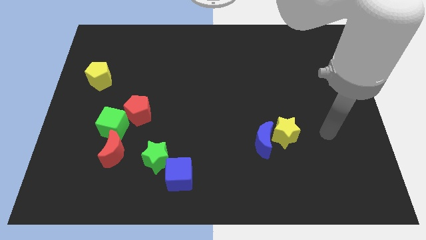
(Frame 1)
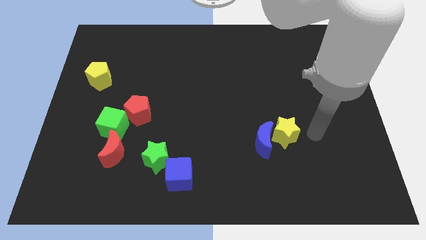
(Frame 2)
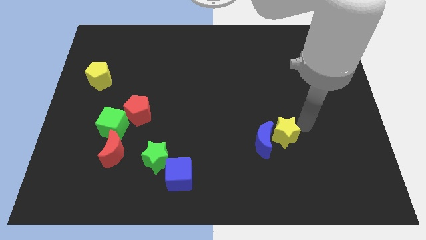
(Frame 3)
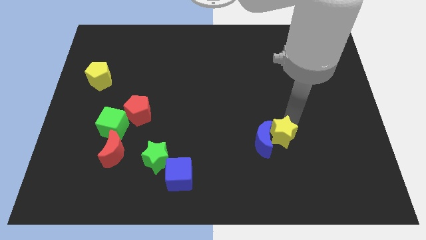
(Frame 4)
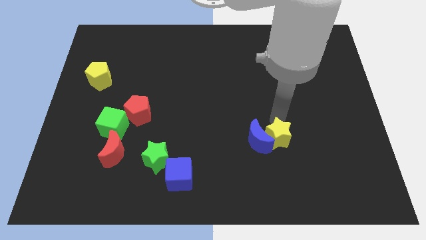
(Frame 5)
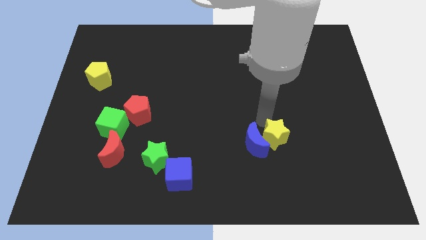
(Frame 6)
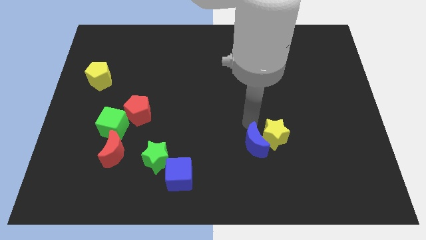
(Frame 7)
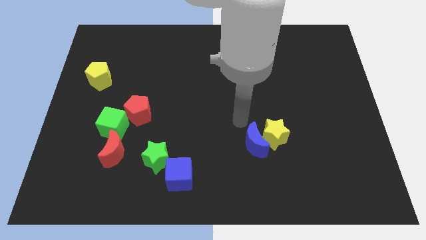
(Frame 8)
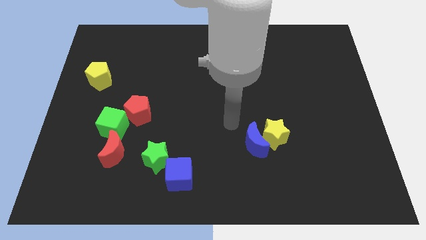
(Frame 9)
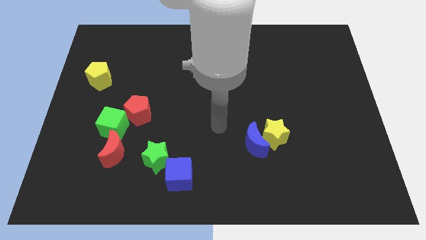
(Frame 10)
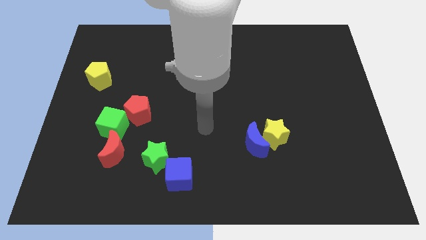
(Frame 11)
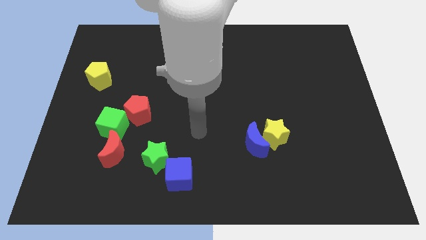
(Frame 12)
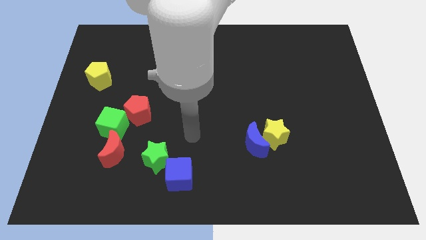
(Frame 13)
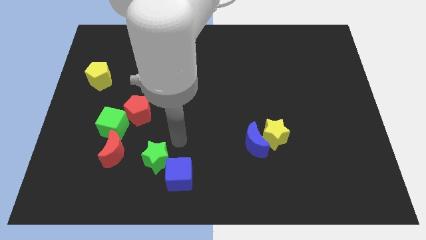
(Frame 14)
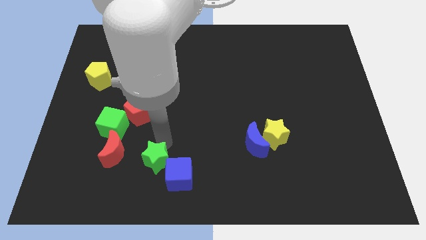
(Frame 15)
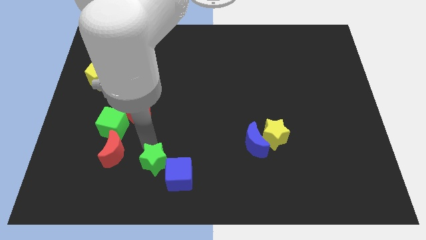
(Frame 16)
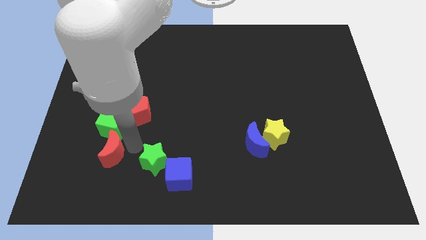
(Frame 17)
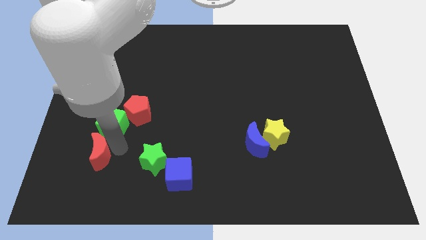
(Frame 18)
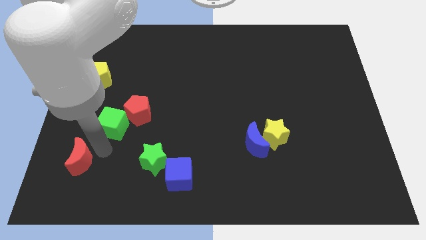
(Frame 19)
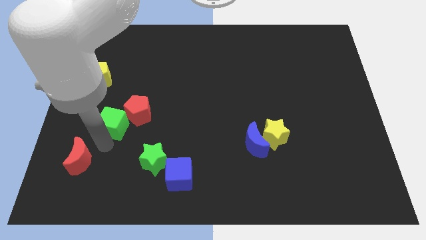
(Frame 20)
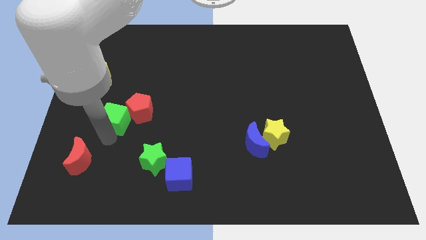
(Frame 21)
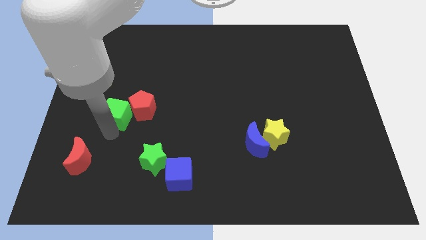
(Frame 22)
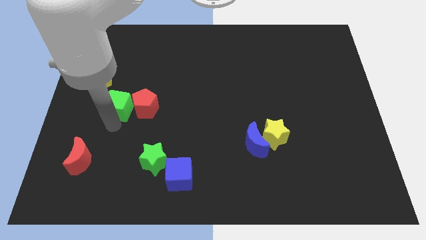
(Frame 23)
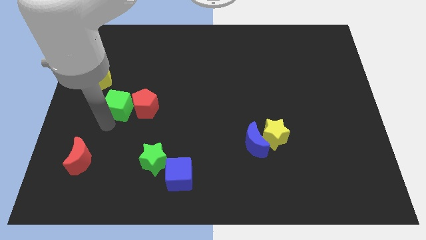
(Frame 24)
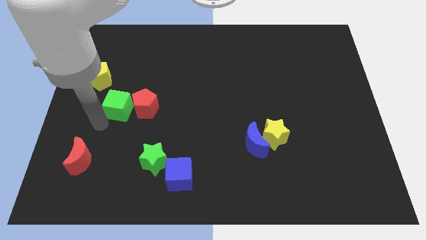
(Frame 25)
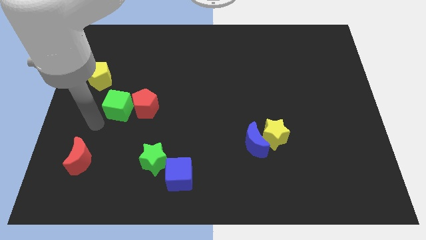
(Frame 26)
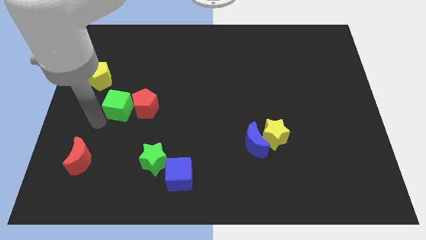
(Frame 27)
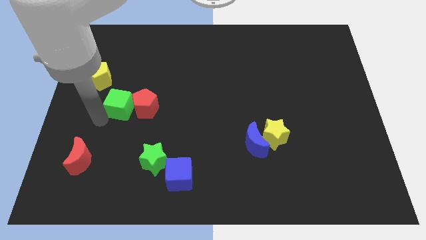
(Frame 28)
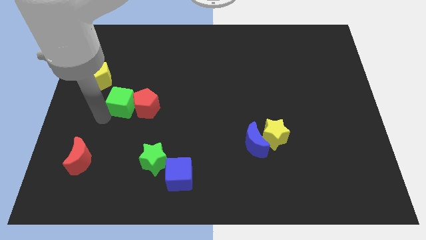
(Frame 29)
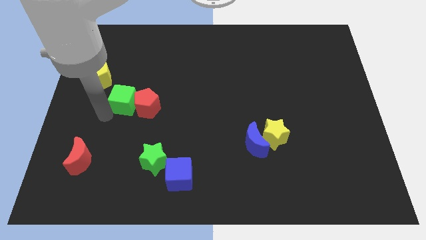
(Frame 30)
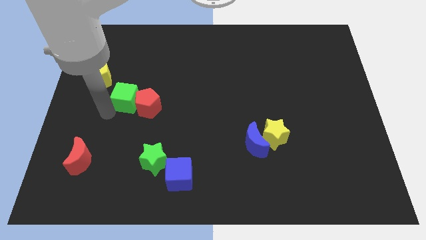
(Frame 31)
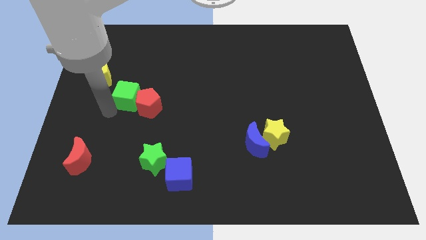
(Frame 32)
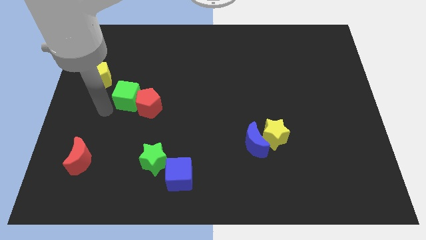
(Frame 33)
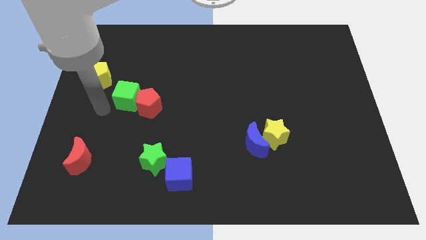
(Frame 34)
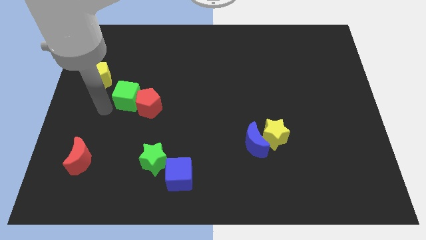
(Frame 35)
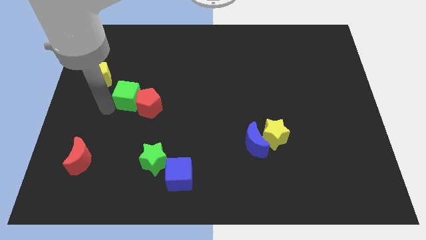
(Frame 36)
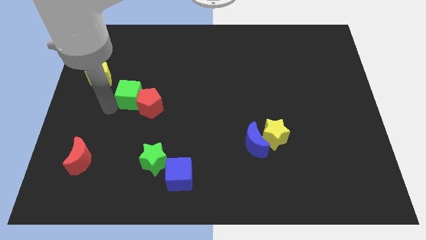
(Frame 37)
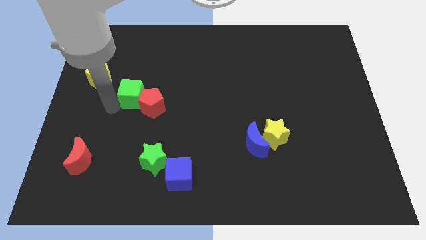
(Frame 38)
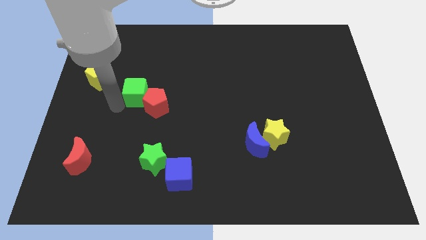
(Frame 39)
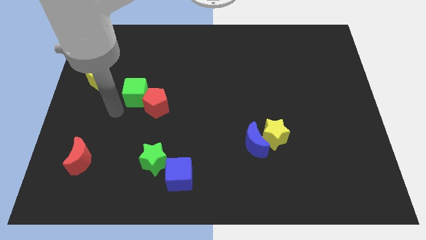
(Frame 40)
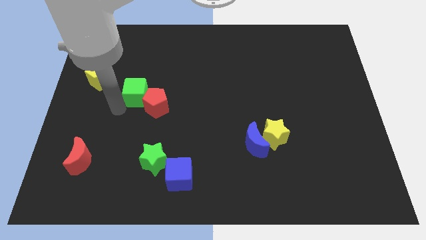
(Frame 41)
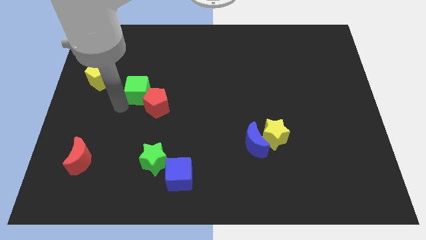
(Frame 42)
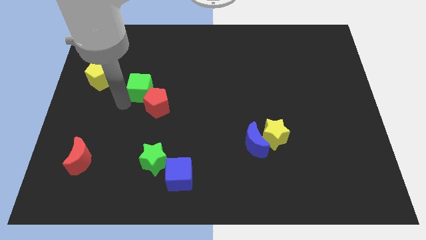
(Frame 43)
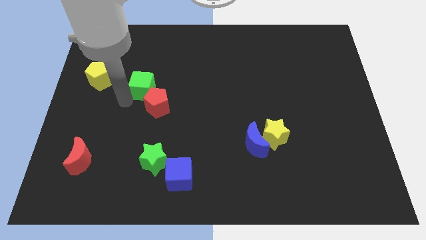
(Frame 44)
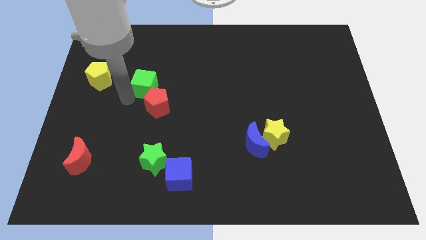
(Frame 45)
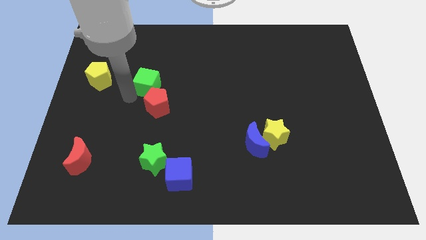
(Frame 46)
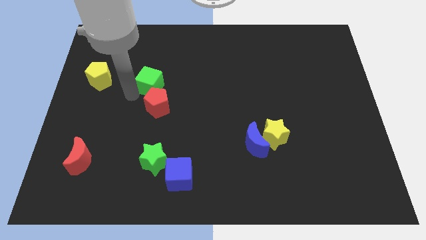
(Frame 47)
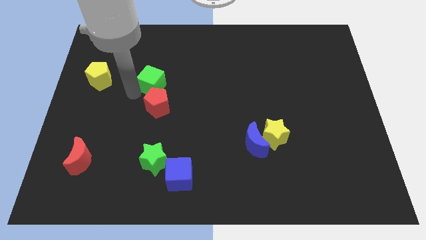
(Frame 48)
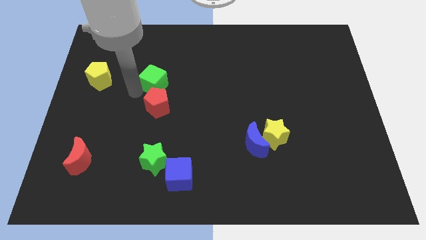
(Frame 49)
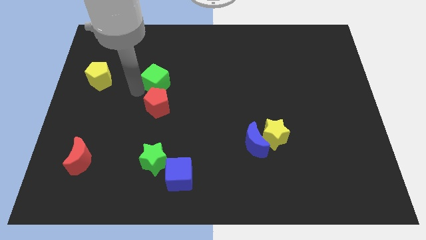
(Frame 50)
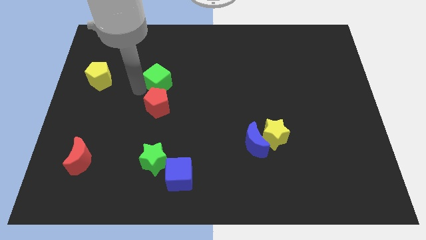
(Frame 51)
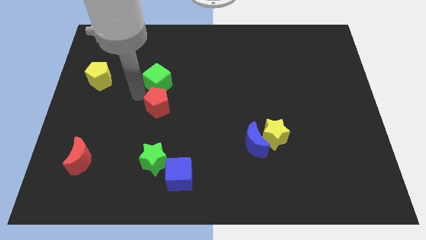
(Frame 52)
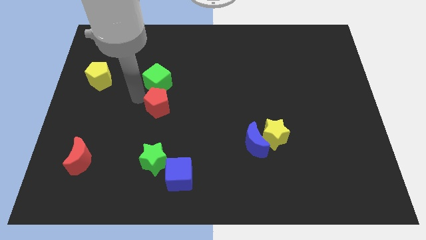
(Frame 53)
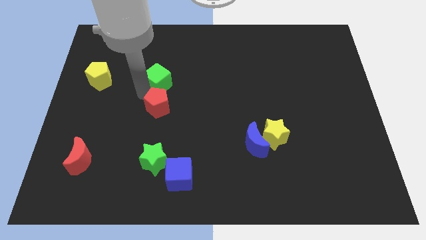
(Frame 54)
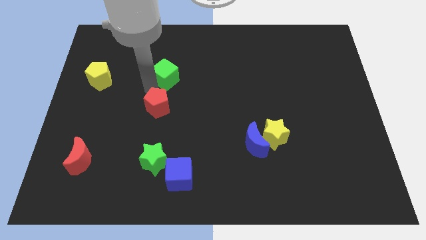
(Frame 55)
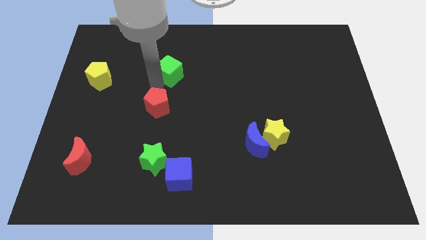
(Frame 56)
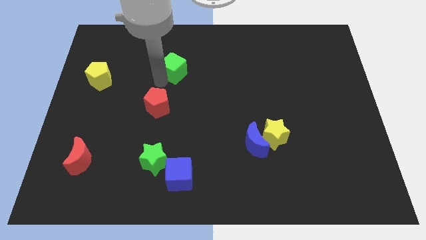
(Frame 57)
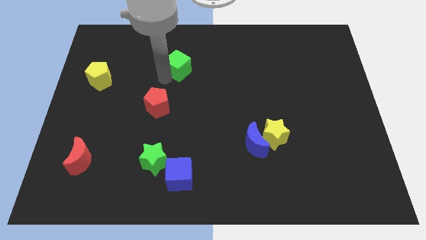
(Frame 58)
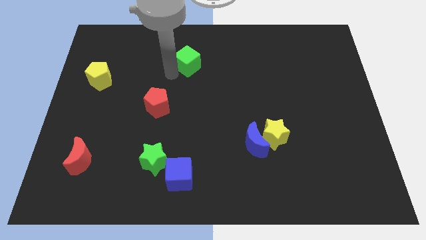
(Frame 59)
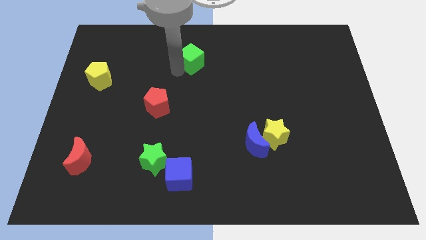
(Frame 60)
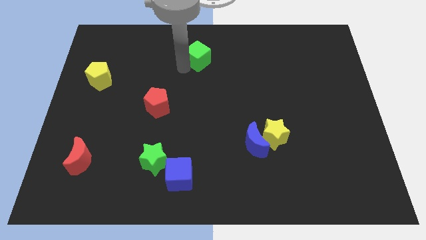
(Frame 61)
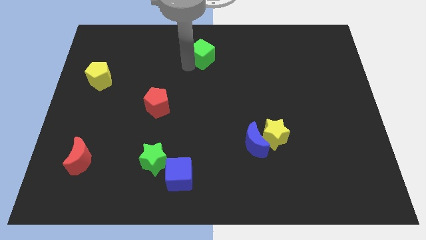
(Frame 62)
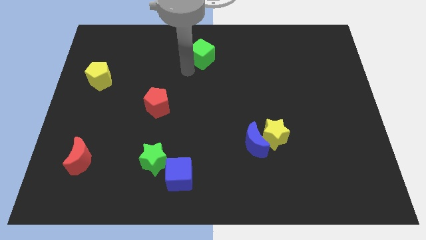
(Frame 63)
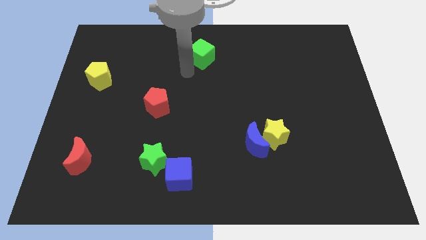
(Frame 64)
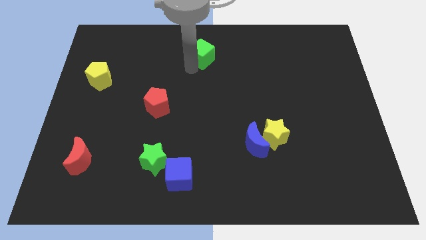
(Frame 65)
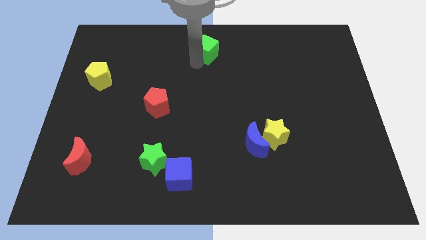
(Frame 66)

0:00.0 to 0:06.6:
slide the green cube to the top
